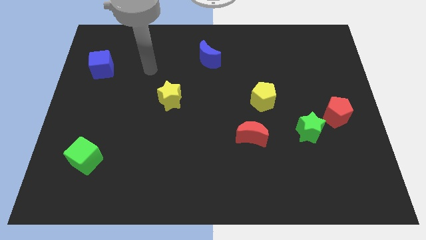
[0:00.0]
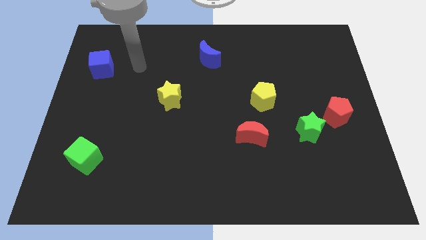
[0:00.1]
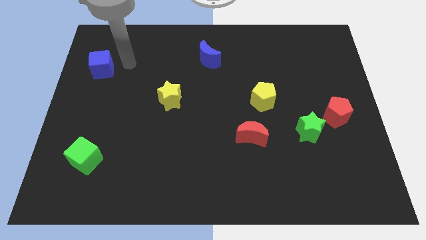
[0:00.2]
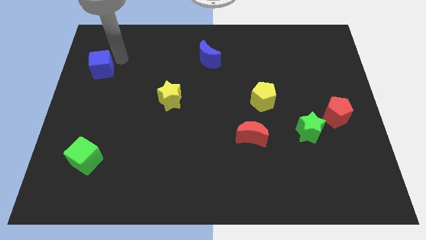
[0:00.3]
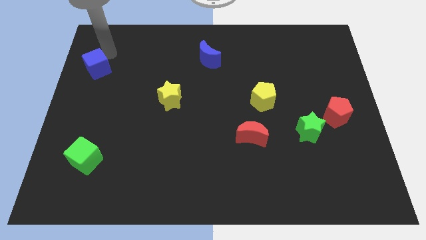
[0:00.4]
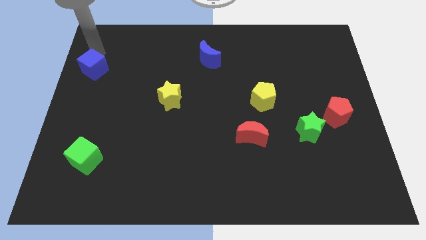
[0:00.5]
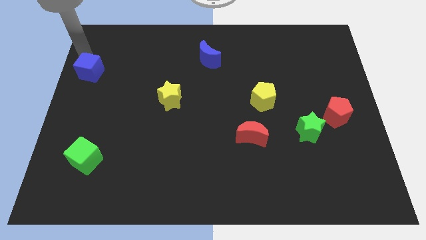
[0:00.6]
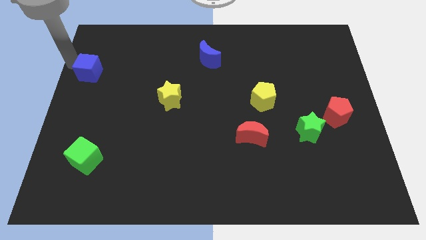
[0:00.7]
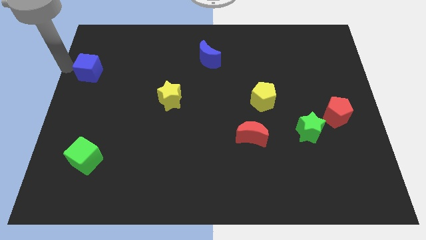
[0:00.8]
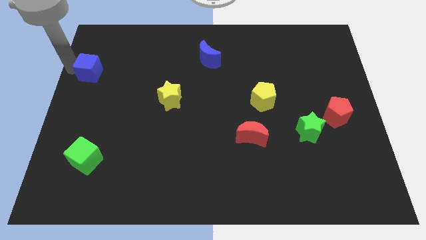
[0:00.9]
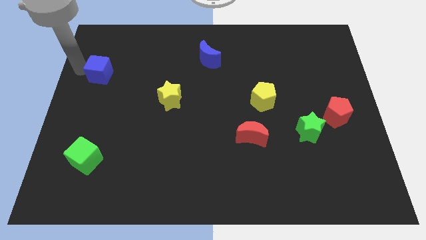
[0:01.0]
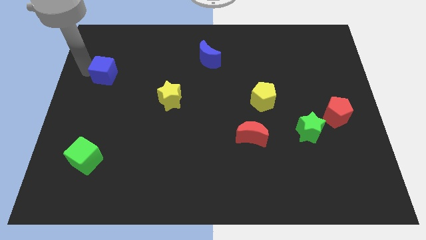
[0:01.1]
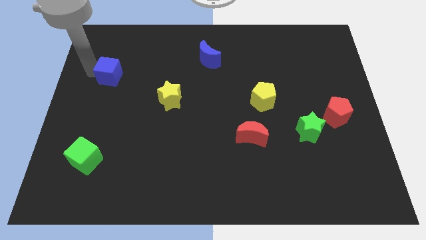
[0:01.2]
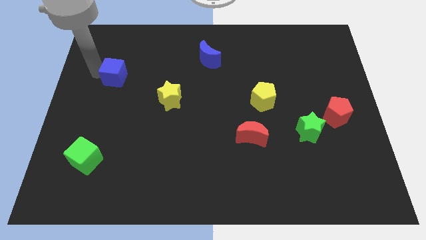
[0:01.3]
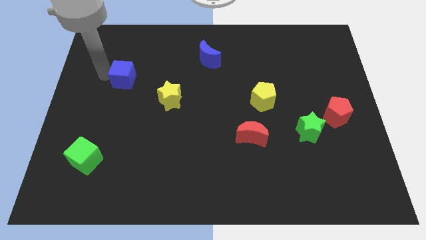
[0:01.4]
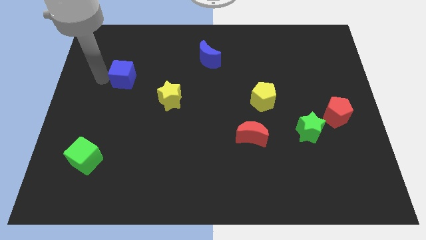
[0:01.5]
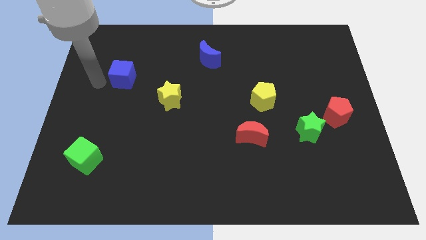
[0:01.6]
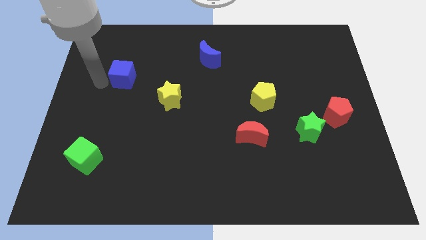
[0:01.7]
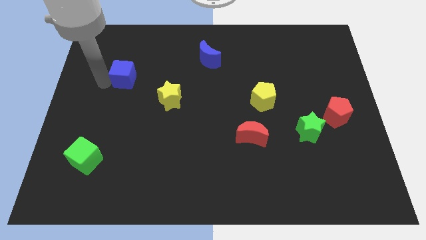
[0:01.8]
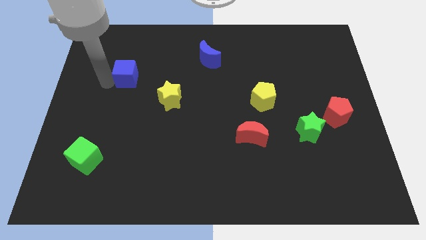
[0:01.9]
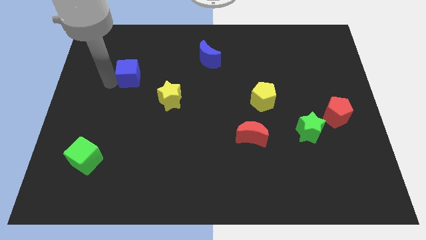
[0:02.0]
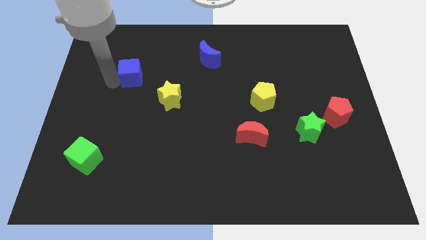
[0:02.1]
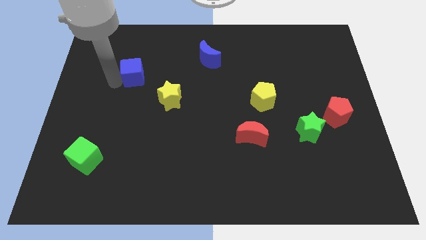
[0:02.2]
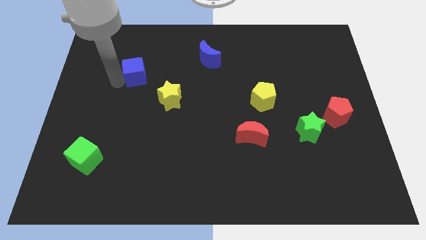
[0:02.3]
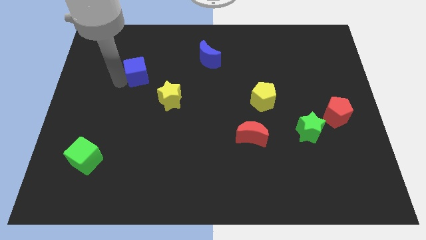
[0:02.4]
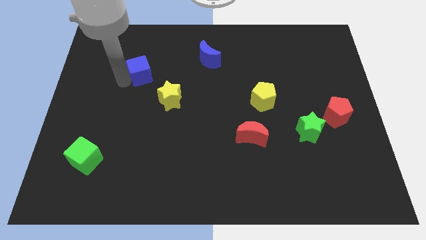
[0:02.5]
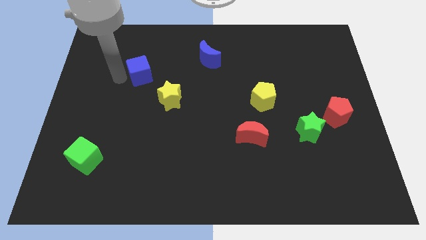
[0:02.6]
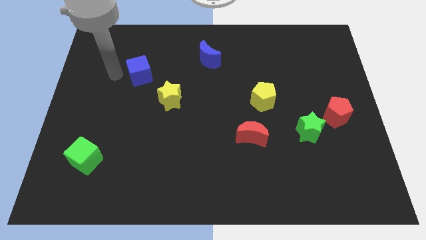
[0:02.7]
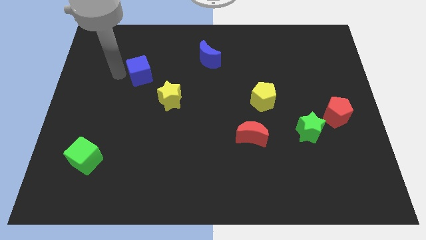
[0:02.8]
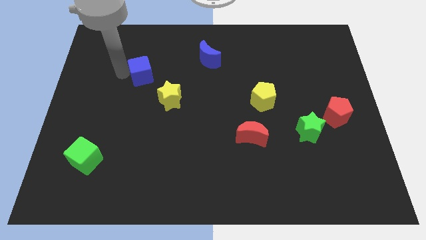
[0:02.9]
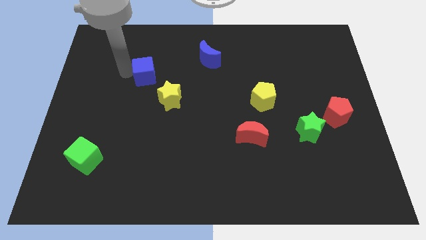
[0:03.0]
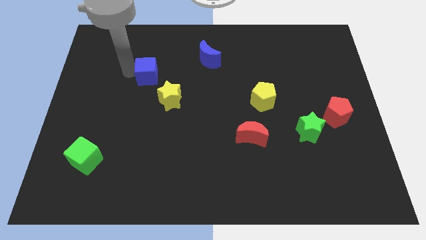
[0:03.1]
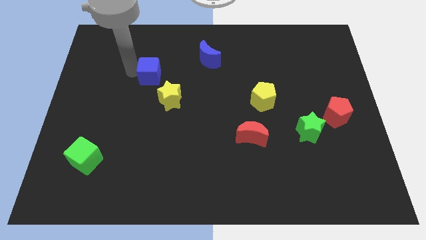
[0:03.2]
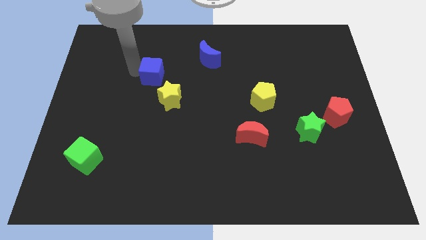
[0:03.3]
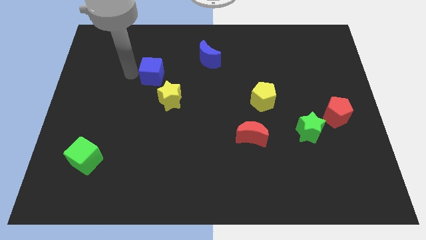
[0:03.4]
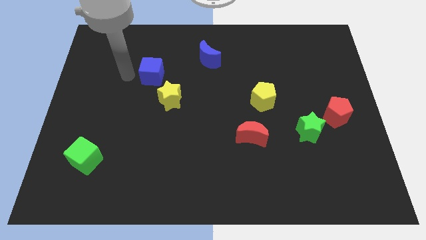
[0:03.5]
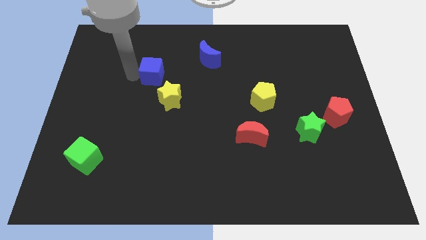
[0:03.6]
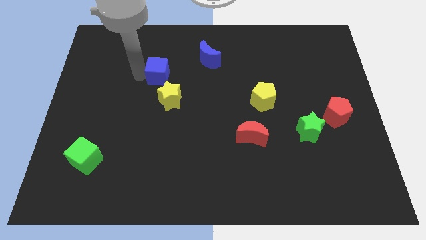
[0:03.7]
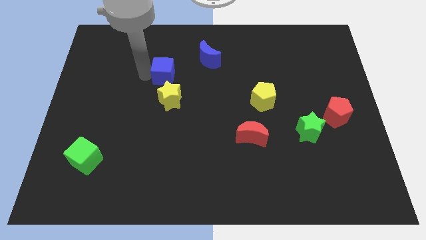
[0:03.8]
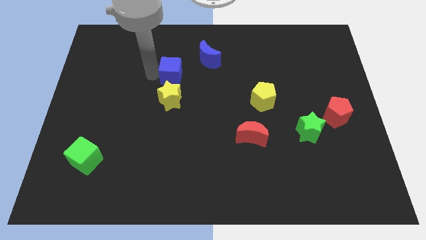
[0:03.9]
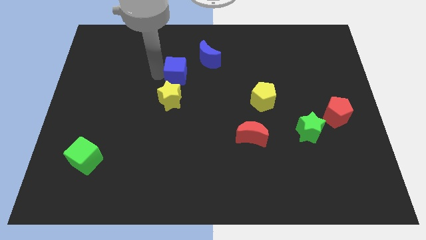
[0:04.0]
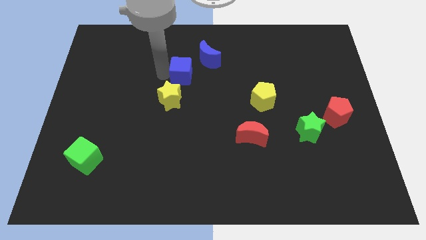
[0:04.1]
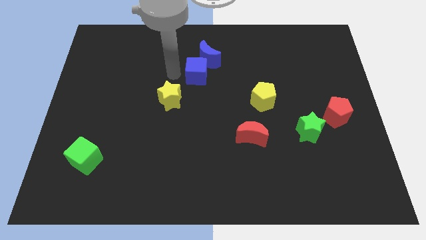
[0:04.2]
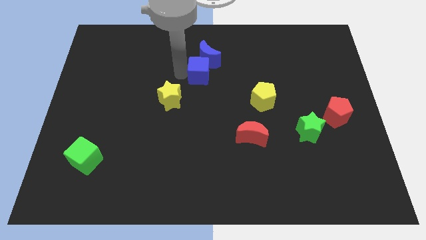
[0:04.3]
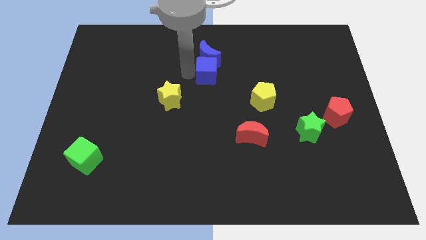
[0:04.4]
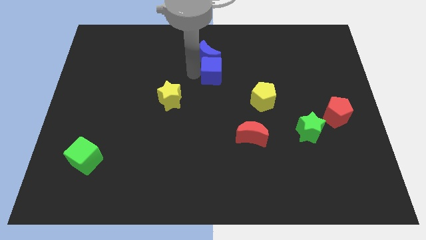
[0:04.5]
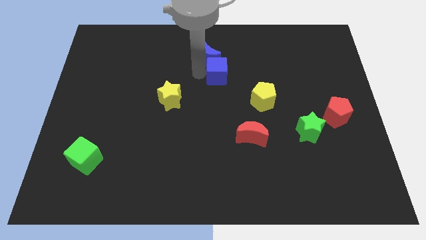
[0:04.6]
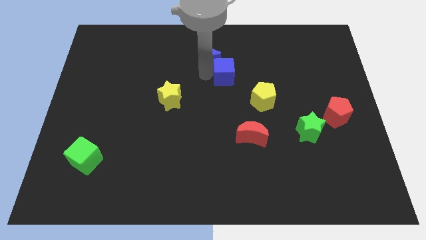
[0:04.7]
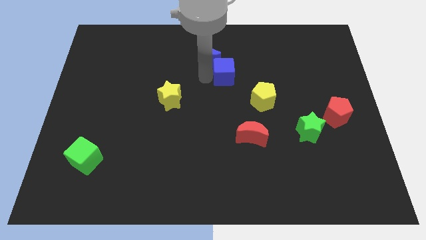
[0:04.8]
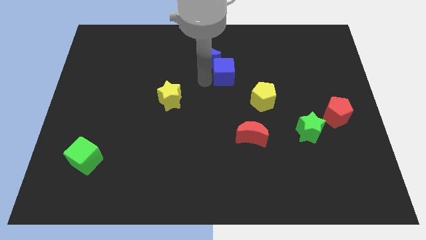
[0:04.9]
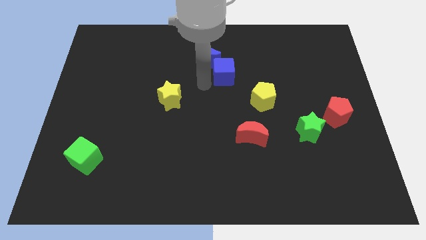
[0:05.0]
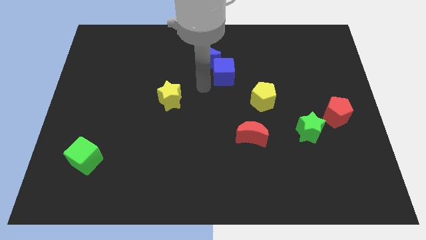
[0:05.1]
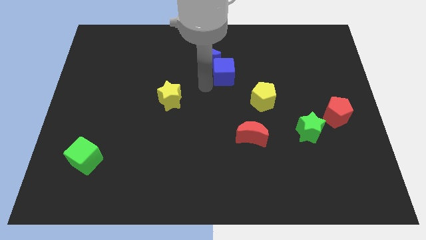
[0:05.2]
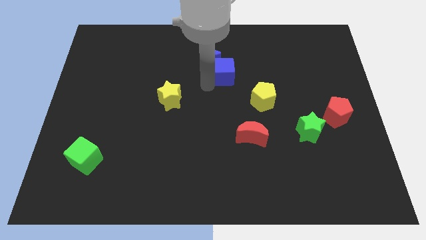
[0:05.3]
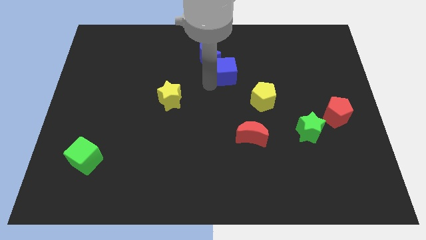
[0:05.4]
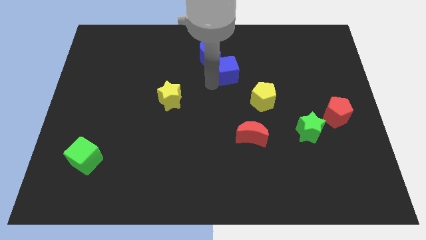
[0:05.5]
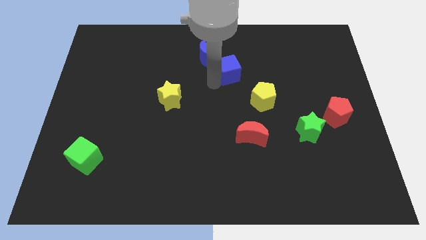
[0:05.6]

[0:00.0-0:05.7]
push the blue cube to the right of the blue moon

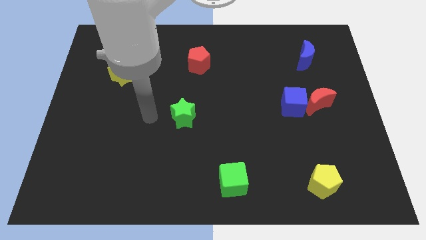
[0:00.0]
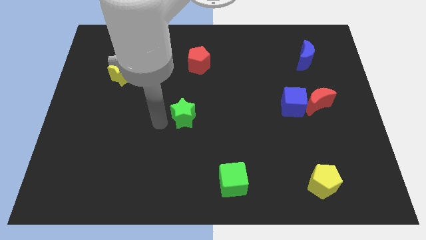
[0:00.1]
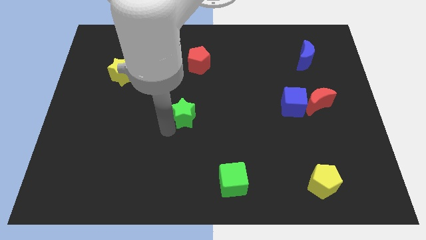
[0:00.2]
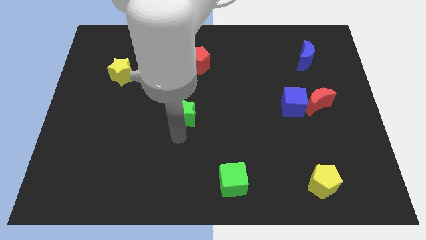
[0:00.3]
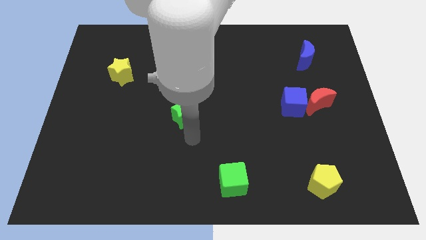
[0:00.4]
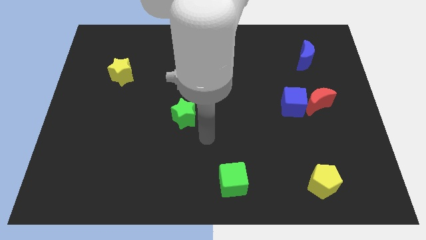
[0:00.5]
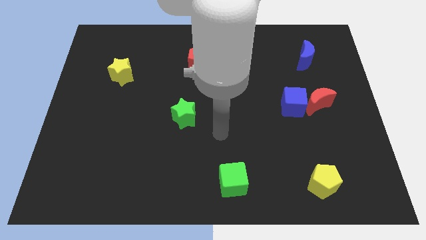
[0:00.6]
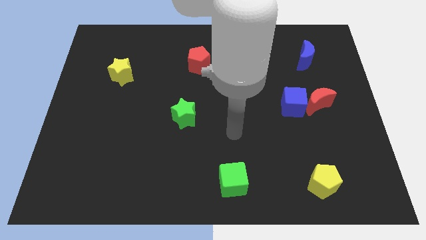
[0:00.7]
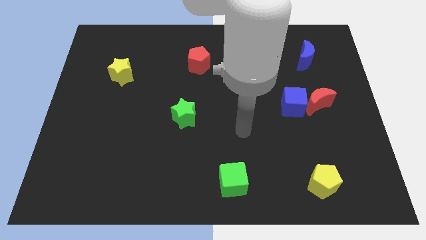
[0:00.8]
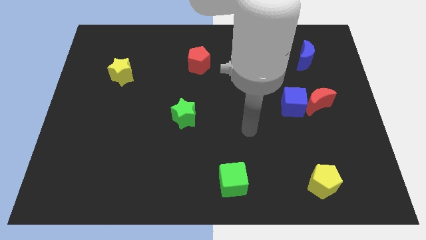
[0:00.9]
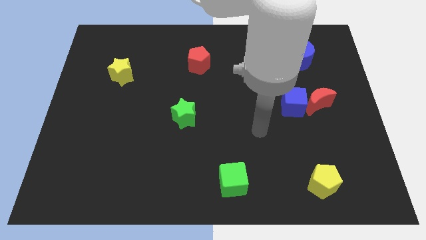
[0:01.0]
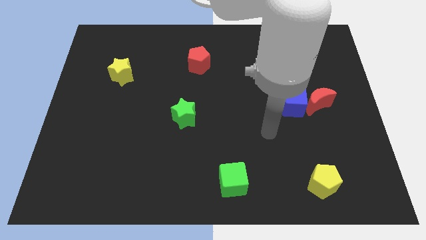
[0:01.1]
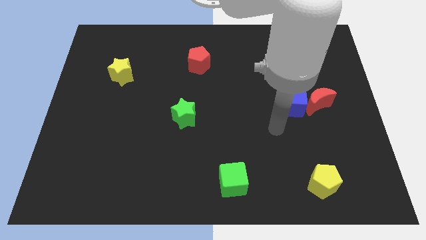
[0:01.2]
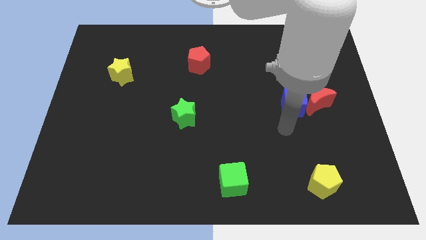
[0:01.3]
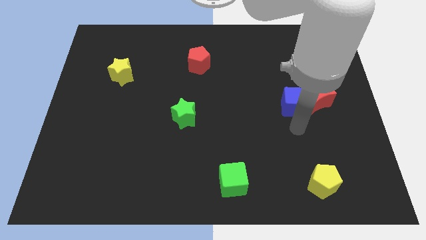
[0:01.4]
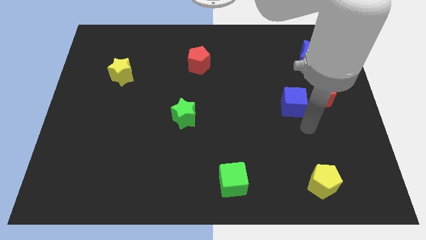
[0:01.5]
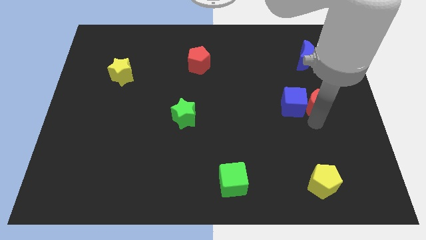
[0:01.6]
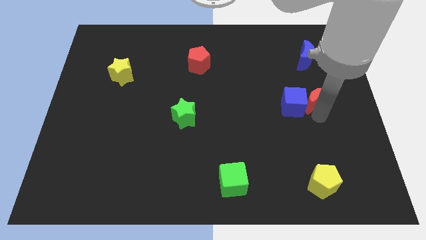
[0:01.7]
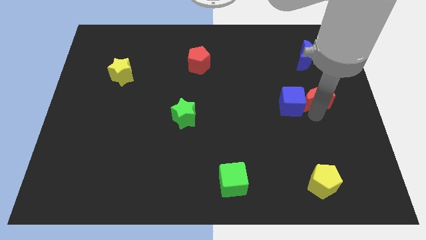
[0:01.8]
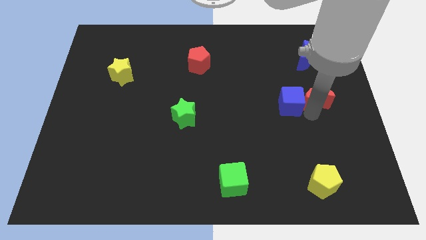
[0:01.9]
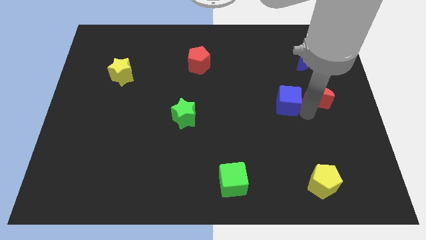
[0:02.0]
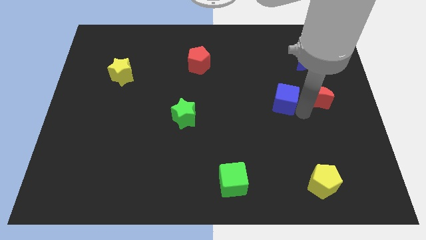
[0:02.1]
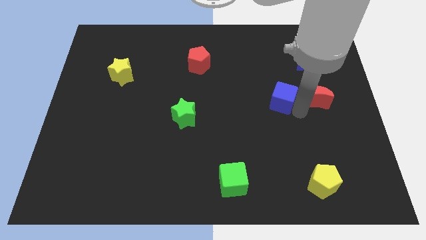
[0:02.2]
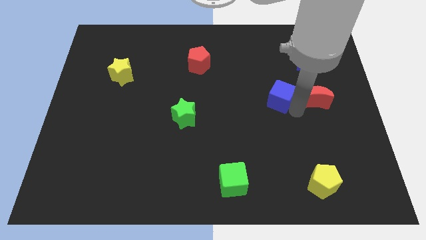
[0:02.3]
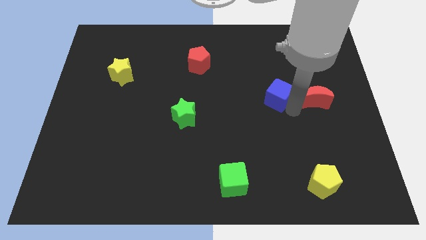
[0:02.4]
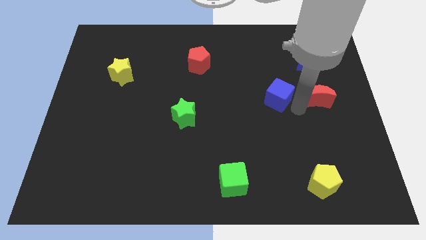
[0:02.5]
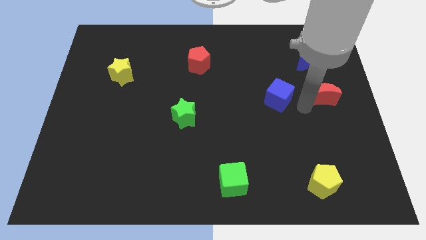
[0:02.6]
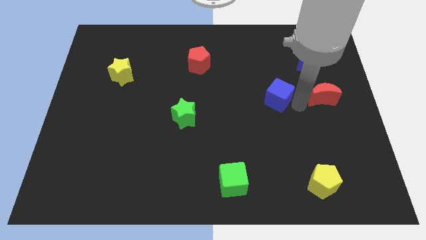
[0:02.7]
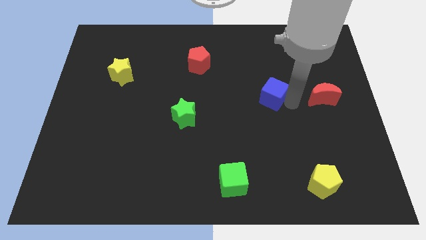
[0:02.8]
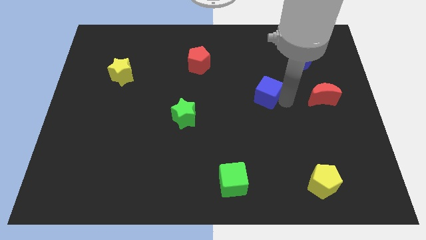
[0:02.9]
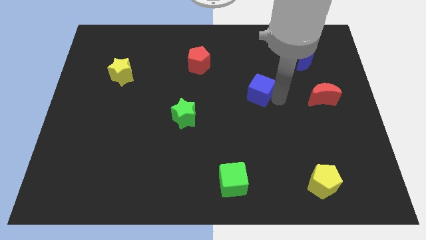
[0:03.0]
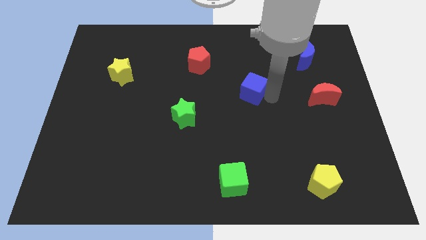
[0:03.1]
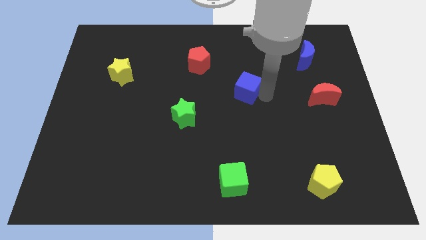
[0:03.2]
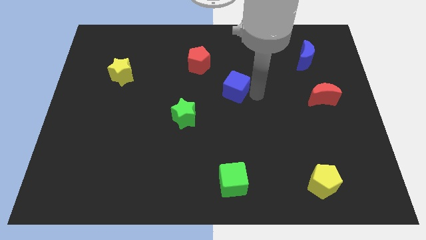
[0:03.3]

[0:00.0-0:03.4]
move the blue cube to the bottom right side of the red pentagon
